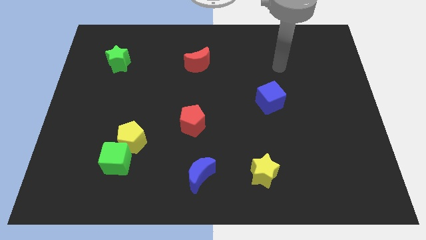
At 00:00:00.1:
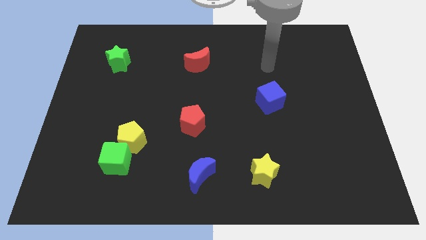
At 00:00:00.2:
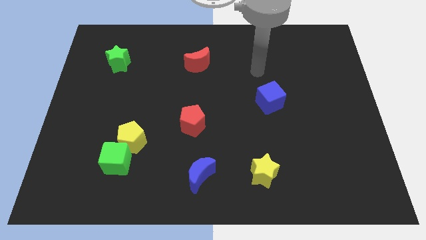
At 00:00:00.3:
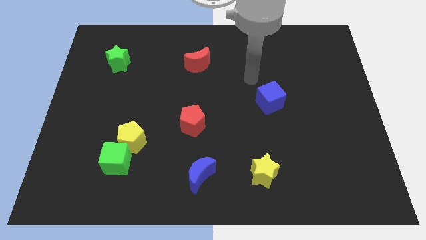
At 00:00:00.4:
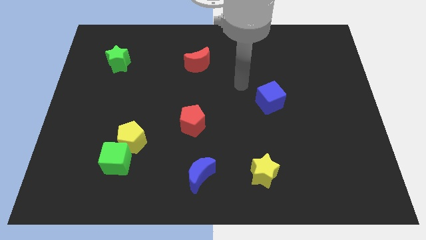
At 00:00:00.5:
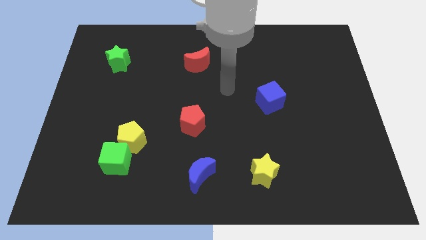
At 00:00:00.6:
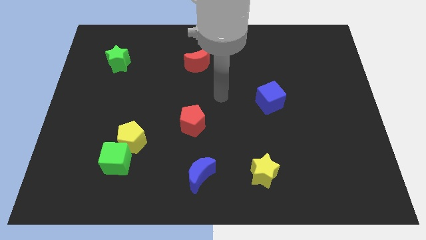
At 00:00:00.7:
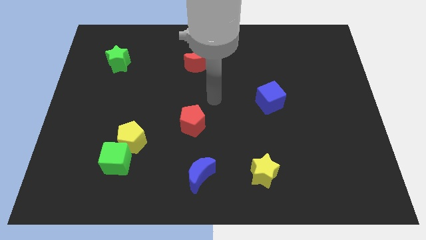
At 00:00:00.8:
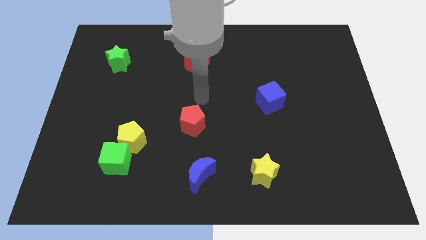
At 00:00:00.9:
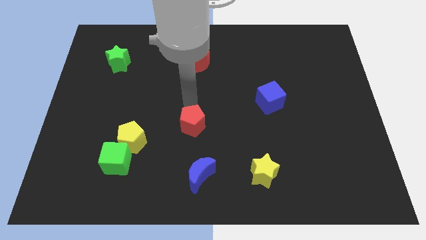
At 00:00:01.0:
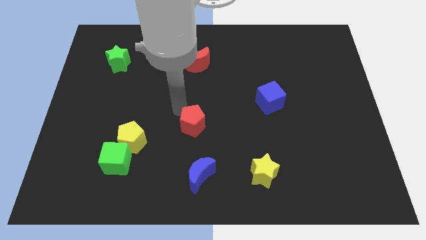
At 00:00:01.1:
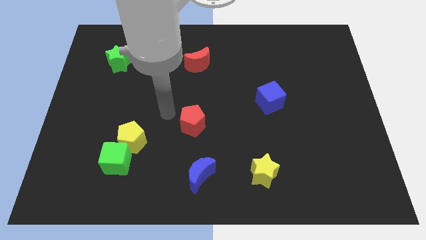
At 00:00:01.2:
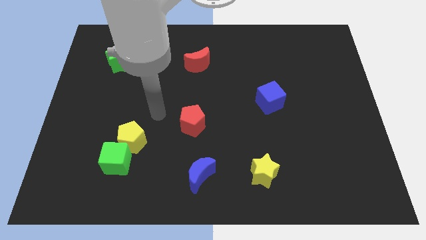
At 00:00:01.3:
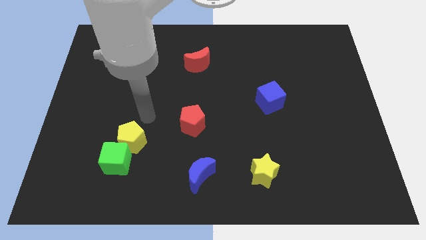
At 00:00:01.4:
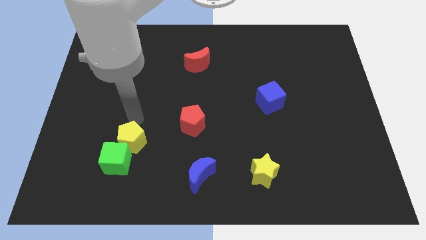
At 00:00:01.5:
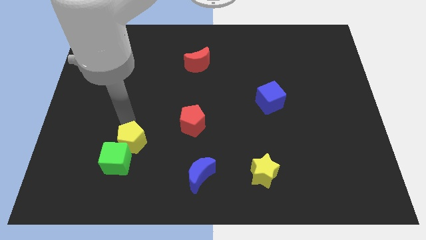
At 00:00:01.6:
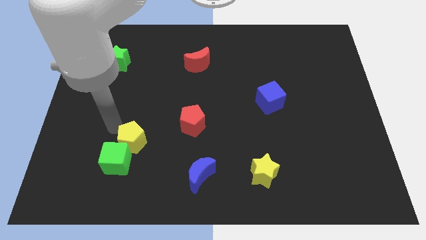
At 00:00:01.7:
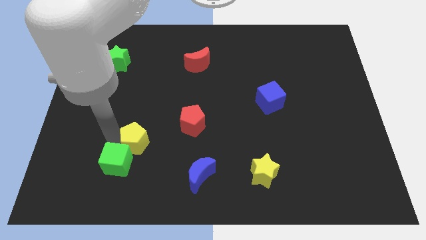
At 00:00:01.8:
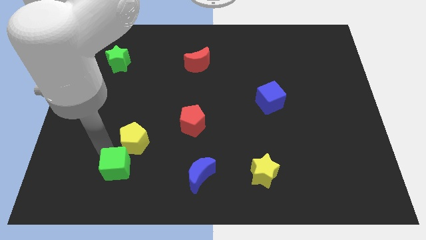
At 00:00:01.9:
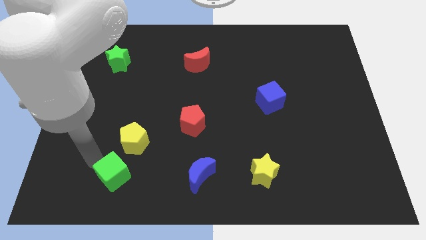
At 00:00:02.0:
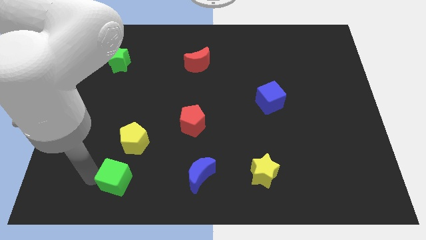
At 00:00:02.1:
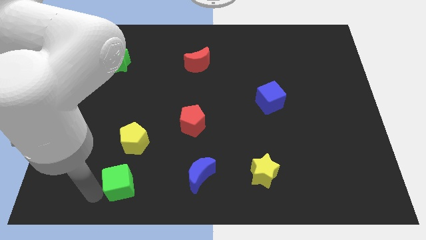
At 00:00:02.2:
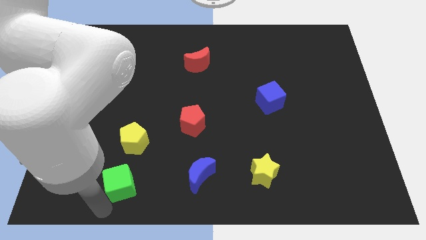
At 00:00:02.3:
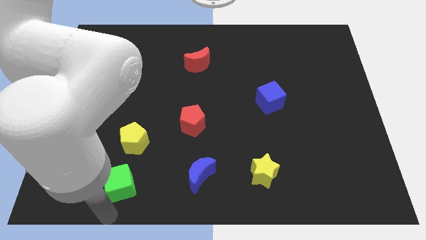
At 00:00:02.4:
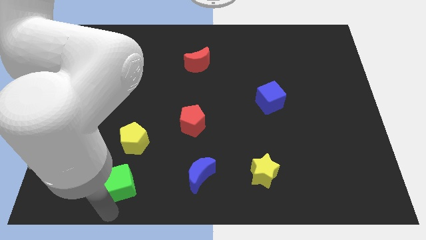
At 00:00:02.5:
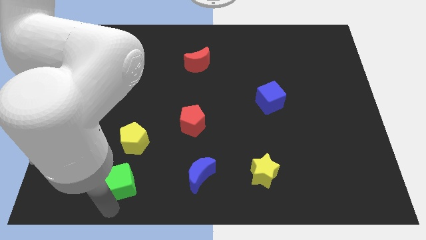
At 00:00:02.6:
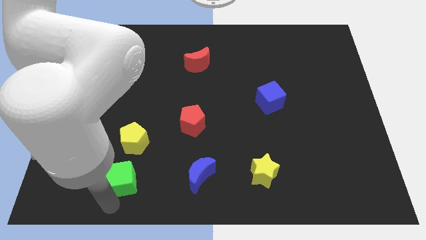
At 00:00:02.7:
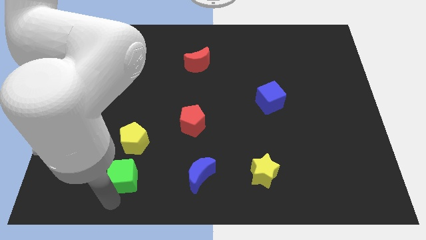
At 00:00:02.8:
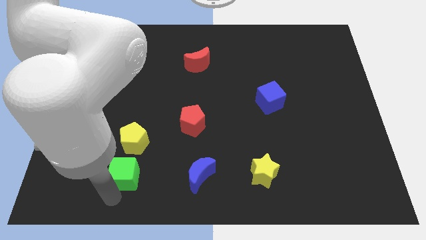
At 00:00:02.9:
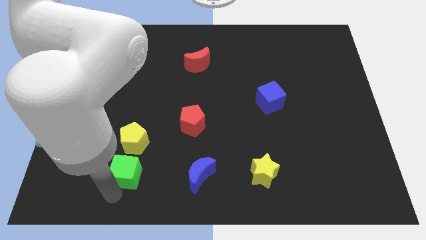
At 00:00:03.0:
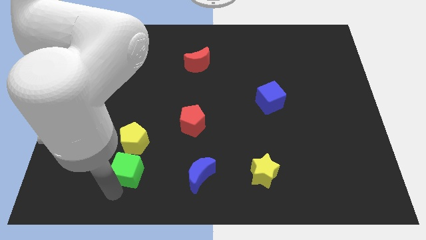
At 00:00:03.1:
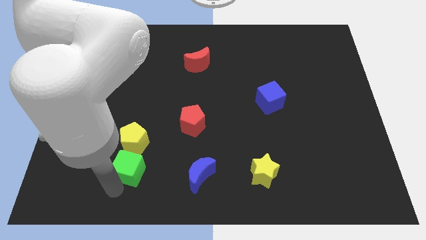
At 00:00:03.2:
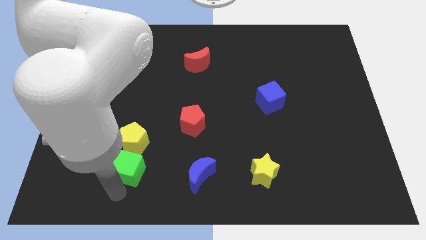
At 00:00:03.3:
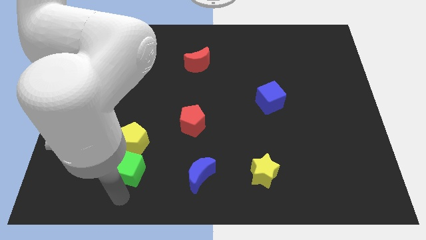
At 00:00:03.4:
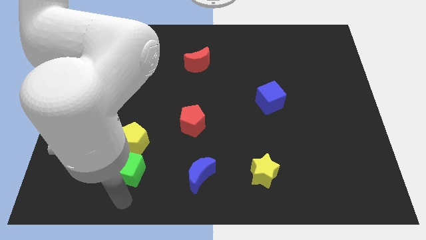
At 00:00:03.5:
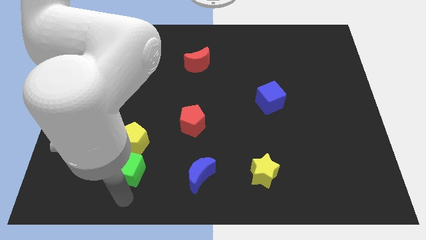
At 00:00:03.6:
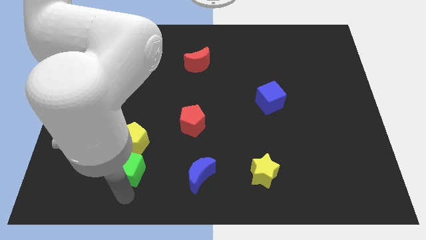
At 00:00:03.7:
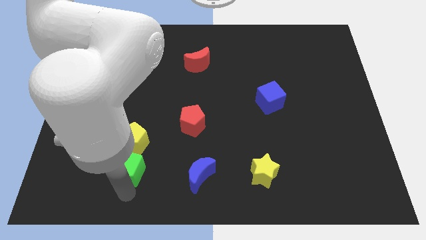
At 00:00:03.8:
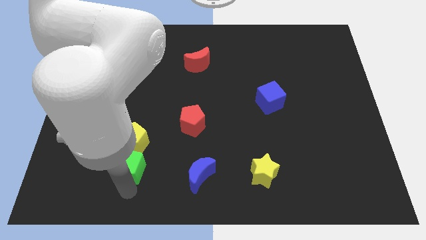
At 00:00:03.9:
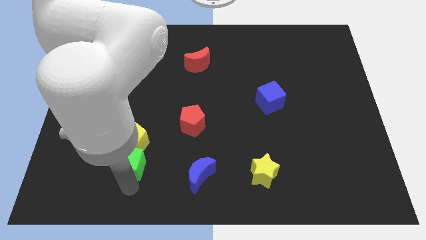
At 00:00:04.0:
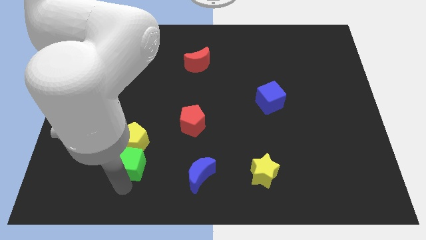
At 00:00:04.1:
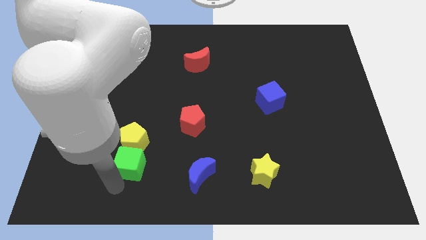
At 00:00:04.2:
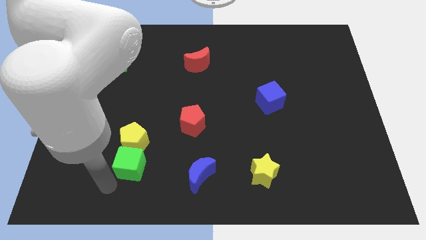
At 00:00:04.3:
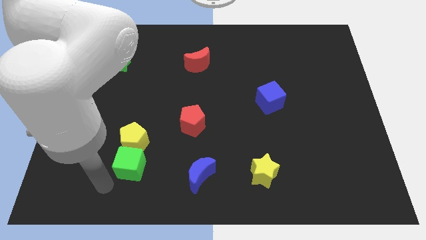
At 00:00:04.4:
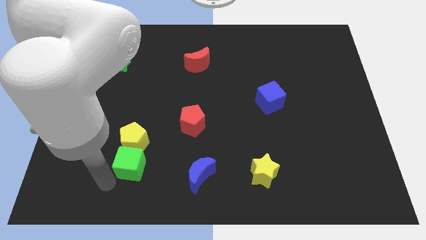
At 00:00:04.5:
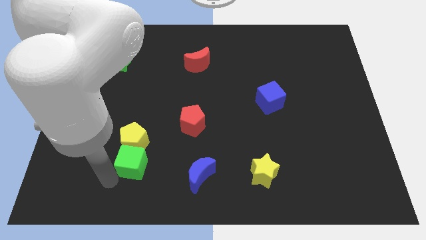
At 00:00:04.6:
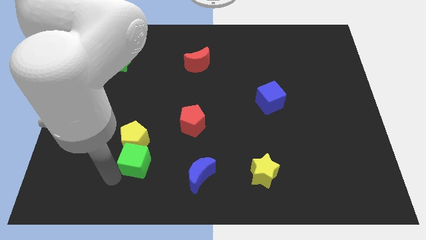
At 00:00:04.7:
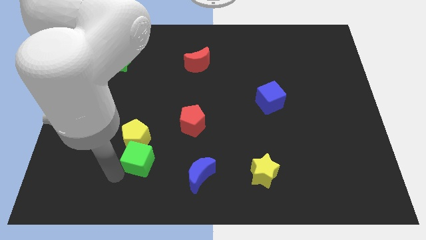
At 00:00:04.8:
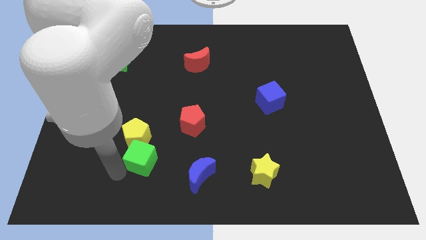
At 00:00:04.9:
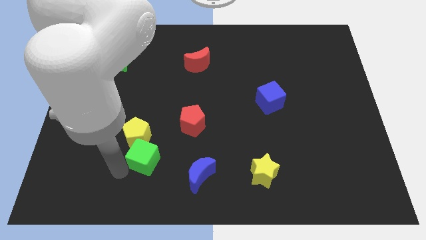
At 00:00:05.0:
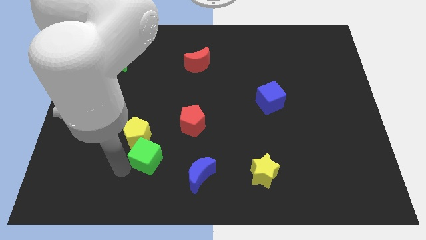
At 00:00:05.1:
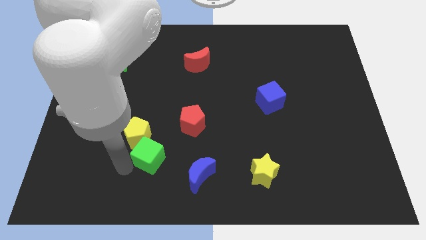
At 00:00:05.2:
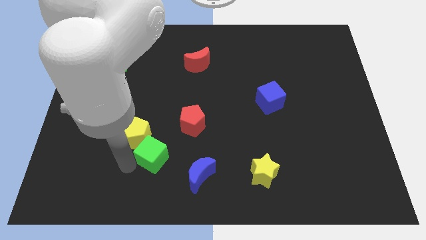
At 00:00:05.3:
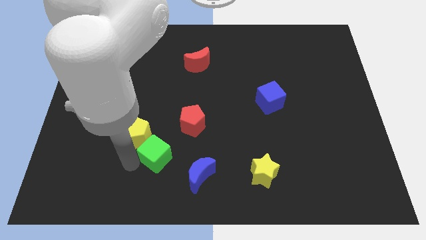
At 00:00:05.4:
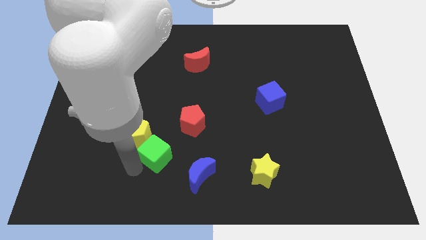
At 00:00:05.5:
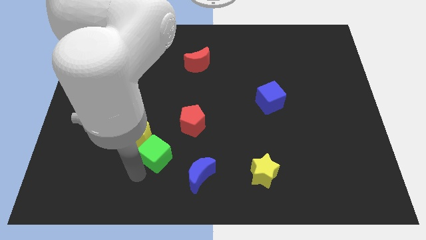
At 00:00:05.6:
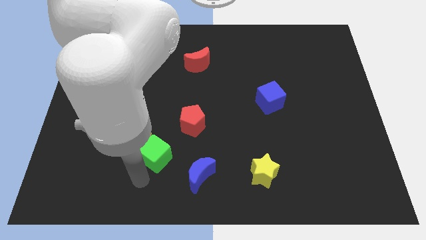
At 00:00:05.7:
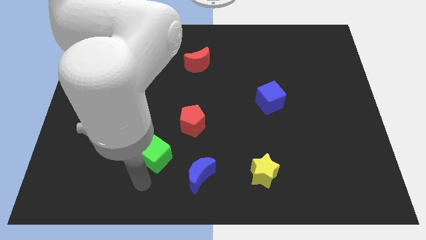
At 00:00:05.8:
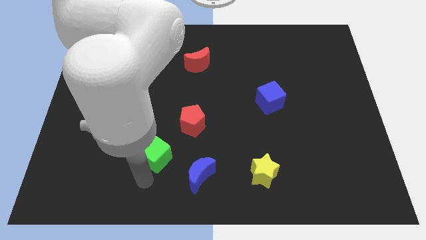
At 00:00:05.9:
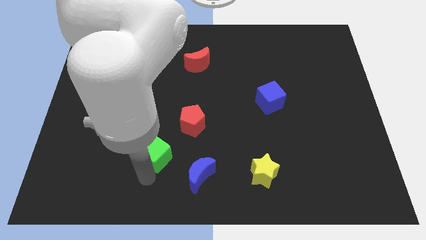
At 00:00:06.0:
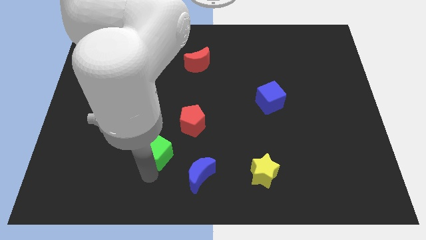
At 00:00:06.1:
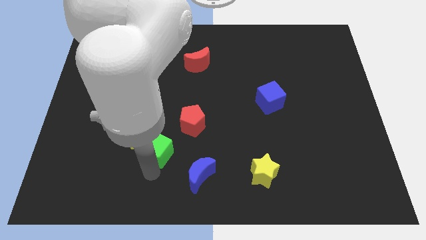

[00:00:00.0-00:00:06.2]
slightly push the green cube upwards and to the right diagonally

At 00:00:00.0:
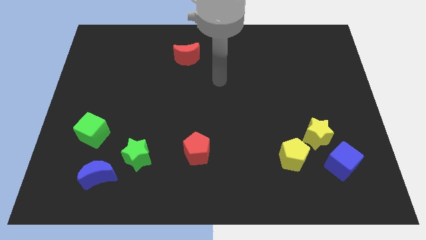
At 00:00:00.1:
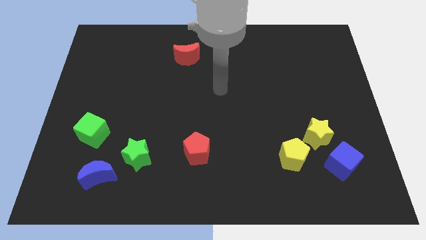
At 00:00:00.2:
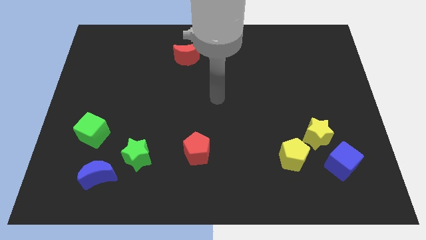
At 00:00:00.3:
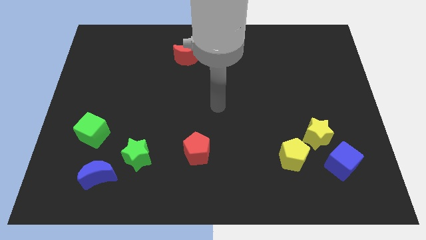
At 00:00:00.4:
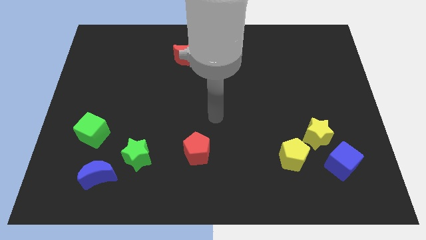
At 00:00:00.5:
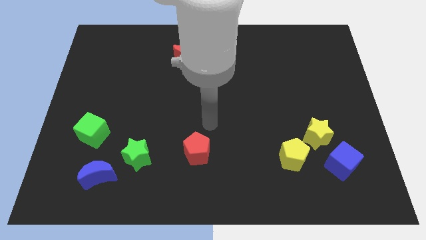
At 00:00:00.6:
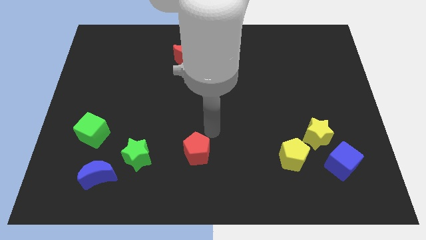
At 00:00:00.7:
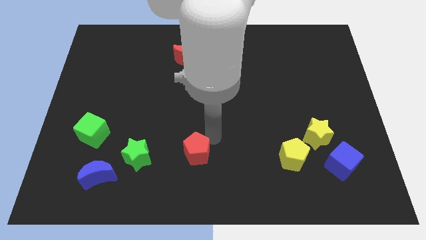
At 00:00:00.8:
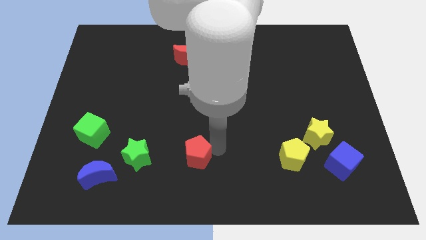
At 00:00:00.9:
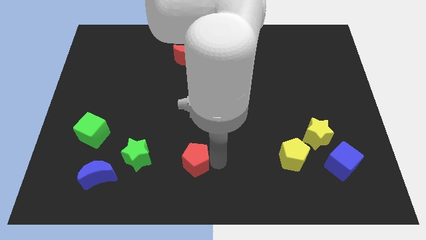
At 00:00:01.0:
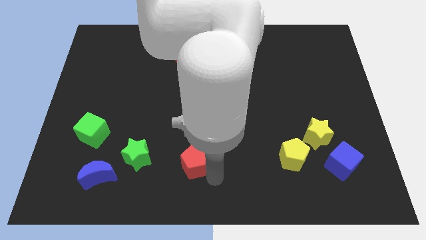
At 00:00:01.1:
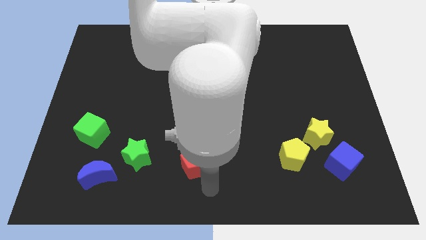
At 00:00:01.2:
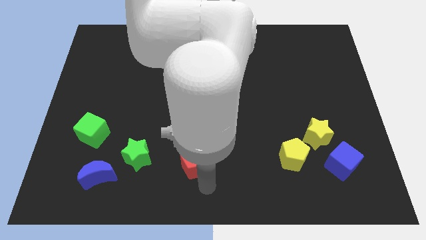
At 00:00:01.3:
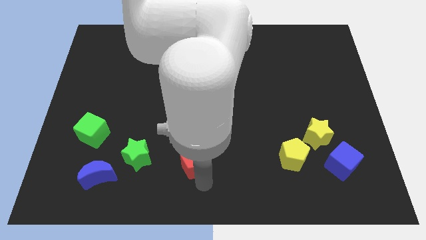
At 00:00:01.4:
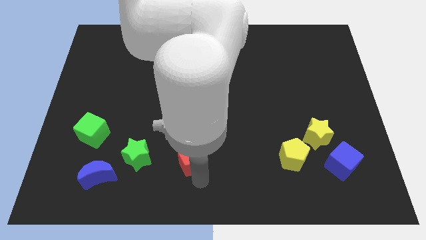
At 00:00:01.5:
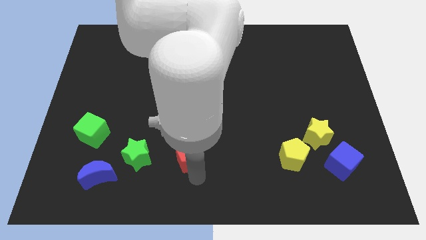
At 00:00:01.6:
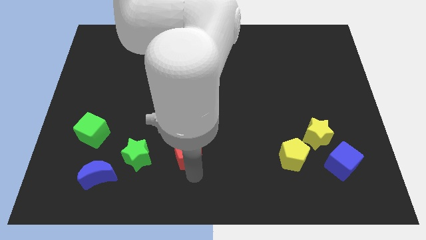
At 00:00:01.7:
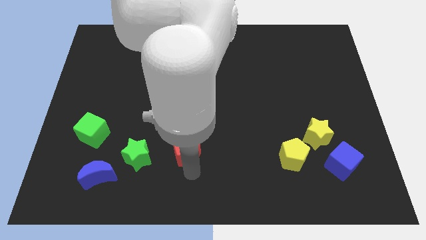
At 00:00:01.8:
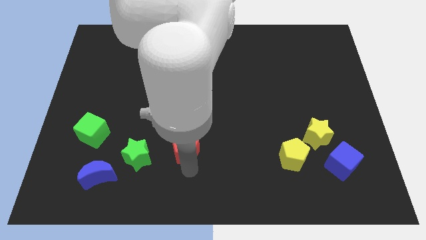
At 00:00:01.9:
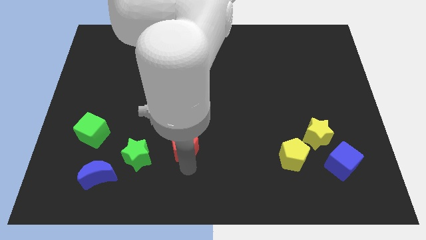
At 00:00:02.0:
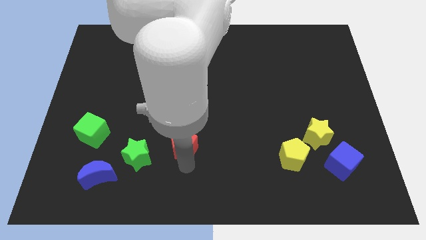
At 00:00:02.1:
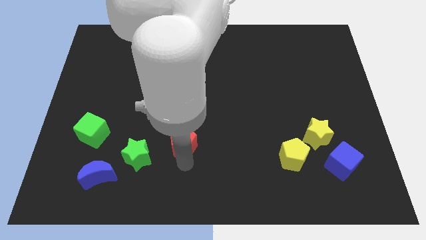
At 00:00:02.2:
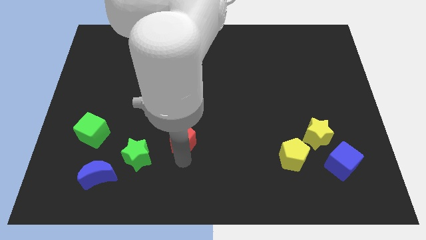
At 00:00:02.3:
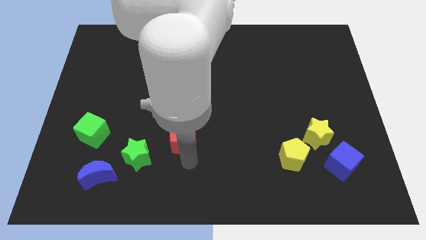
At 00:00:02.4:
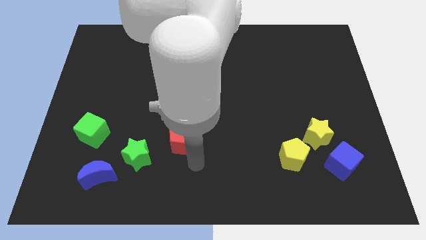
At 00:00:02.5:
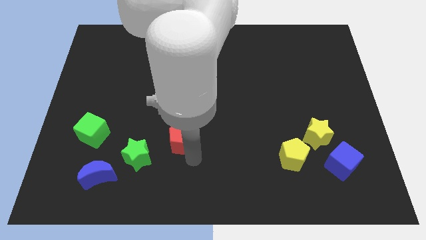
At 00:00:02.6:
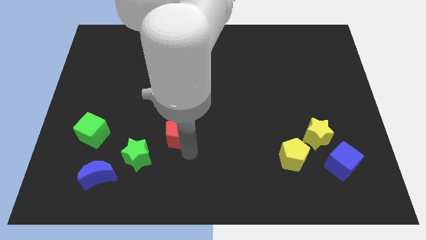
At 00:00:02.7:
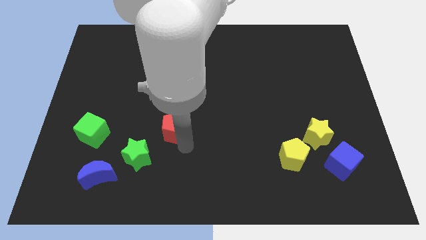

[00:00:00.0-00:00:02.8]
move the red pentagon a bit up and left diagonally
